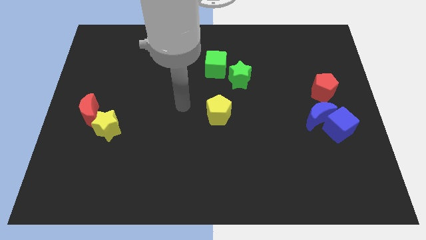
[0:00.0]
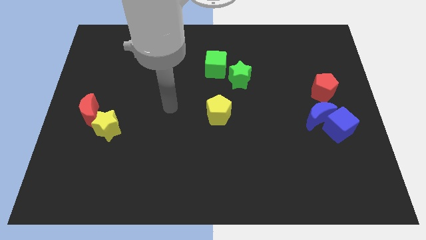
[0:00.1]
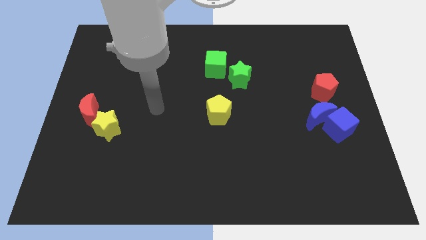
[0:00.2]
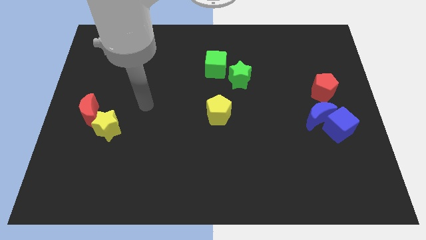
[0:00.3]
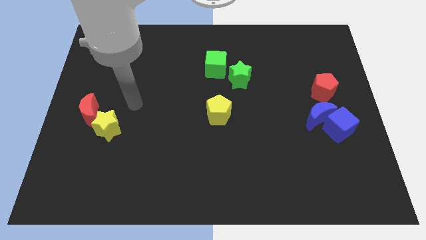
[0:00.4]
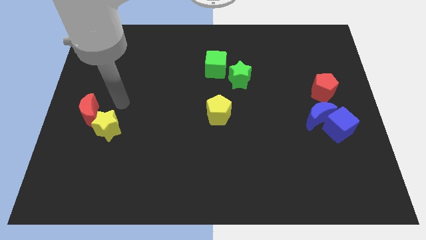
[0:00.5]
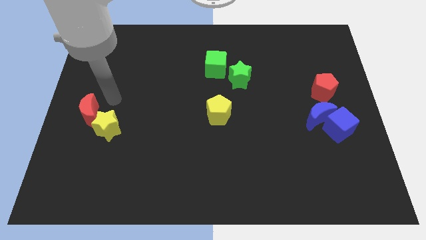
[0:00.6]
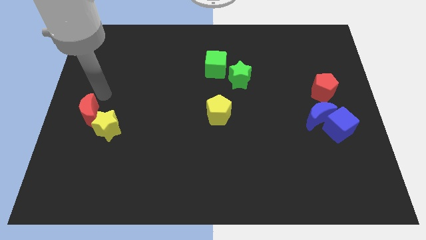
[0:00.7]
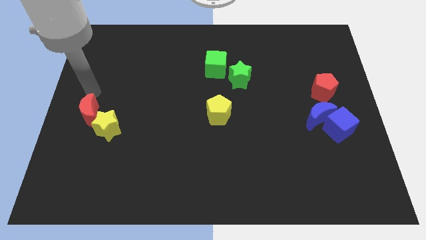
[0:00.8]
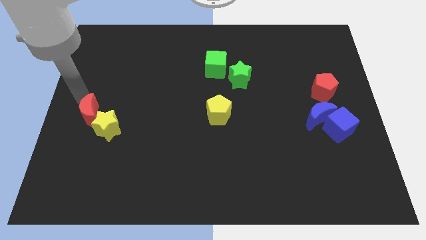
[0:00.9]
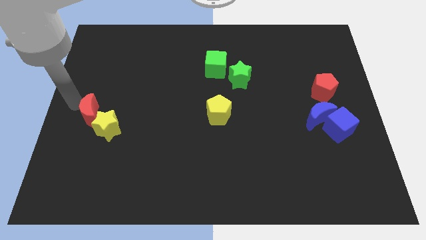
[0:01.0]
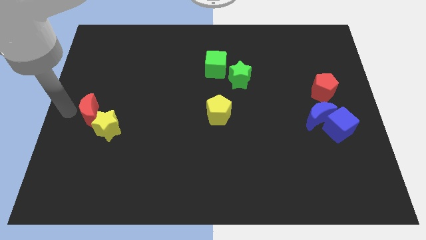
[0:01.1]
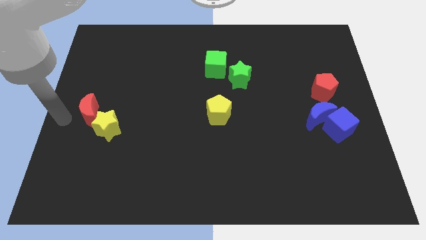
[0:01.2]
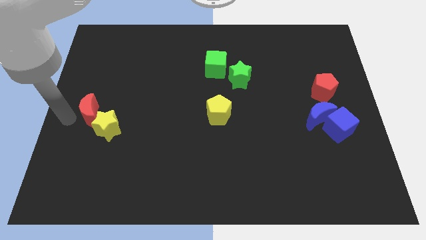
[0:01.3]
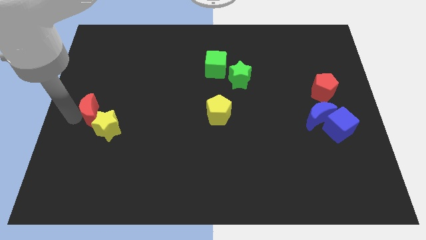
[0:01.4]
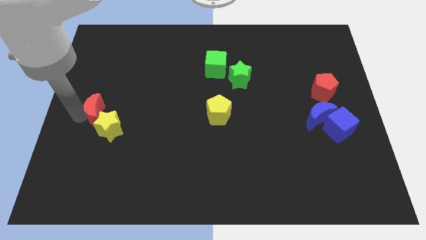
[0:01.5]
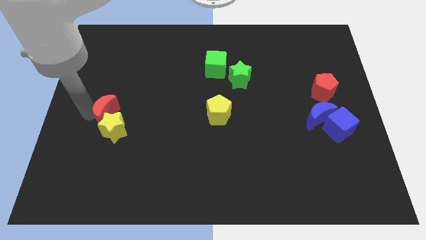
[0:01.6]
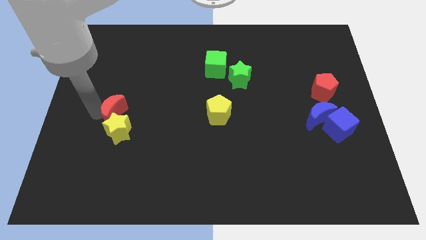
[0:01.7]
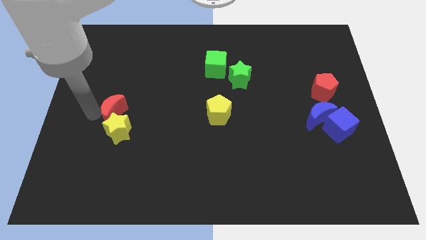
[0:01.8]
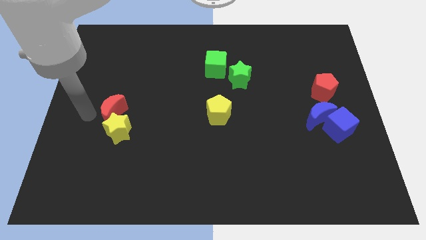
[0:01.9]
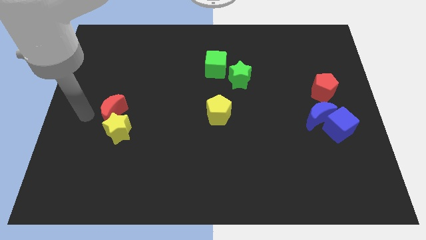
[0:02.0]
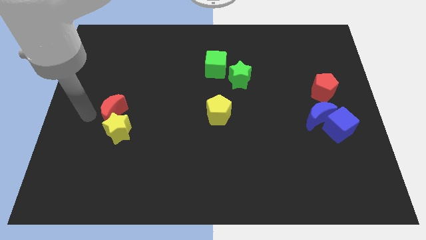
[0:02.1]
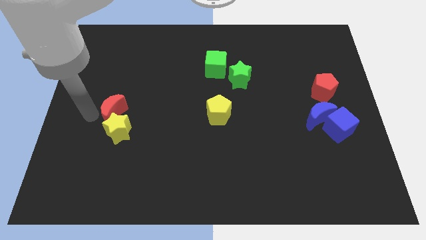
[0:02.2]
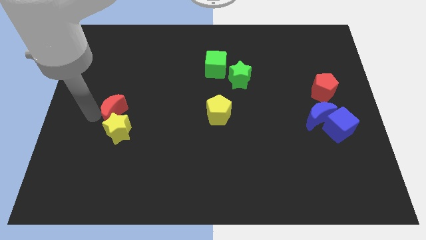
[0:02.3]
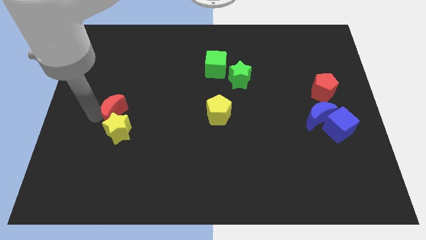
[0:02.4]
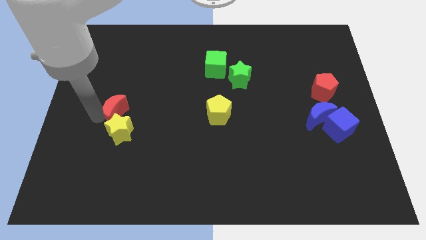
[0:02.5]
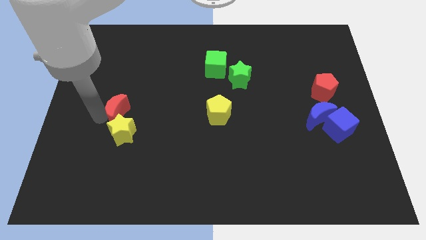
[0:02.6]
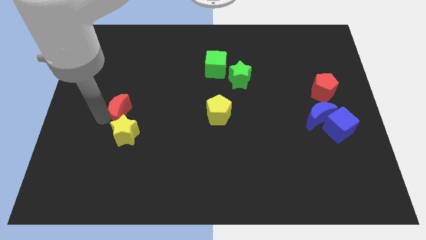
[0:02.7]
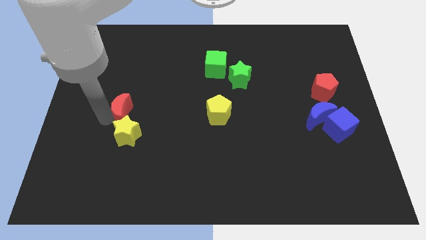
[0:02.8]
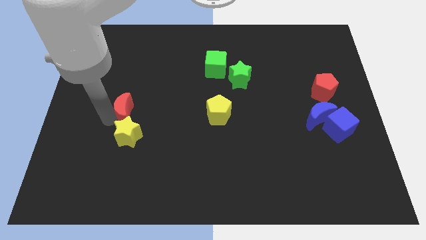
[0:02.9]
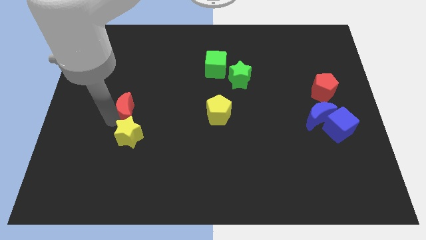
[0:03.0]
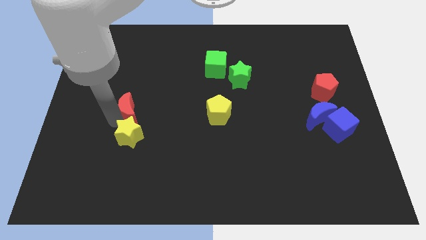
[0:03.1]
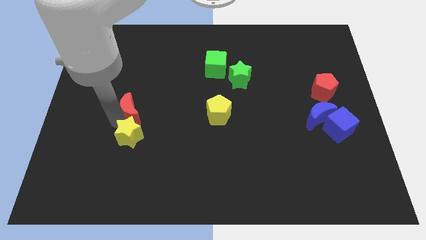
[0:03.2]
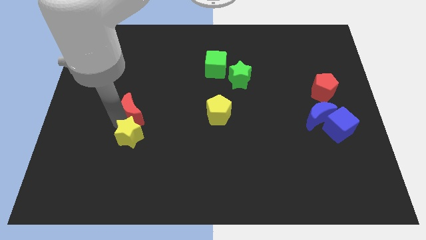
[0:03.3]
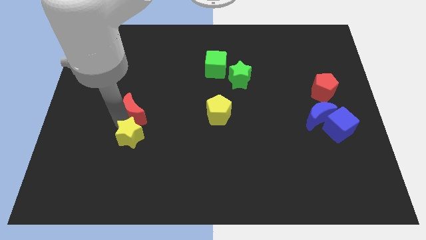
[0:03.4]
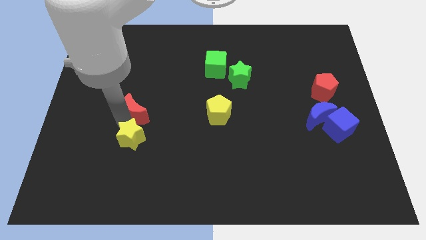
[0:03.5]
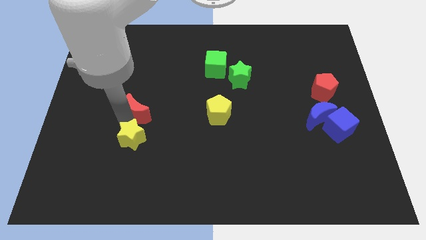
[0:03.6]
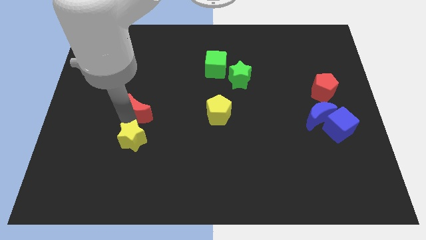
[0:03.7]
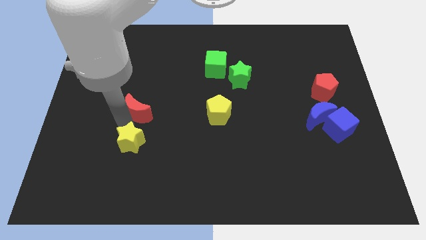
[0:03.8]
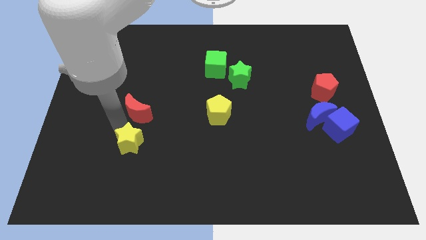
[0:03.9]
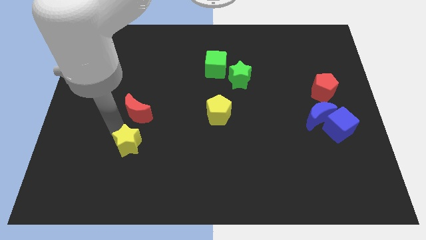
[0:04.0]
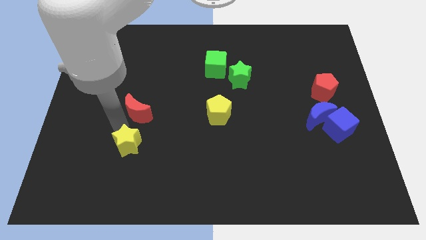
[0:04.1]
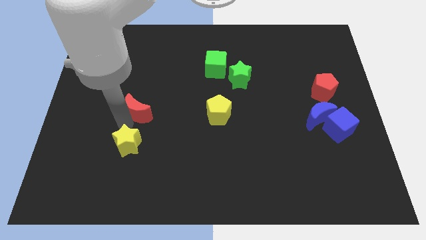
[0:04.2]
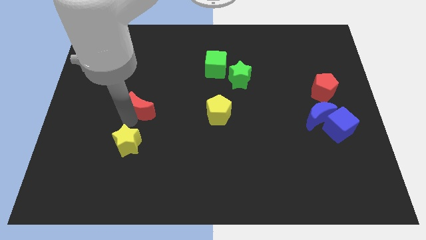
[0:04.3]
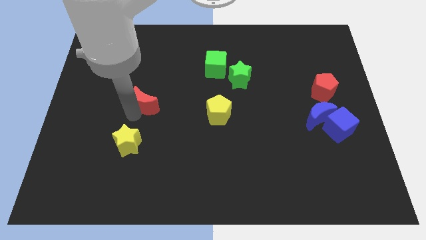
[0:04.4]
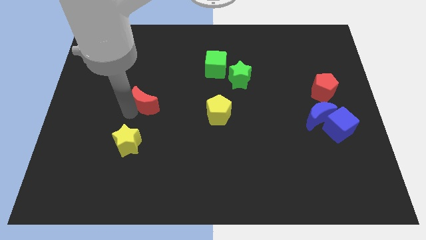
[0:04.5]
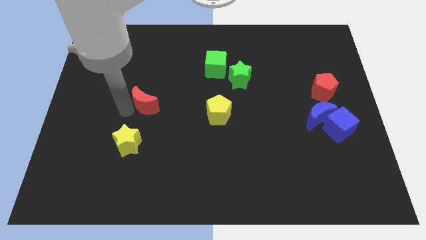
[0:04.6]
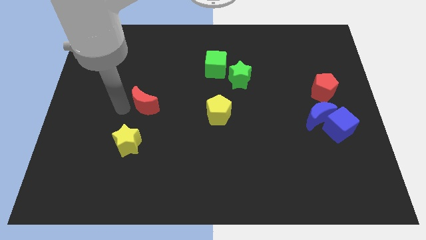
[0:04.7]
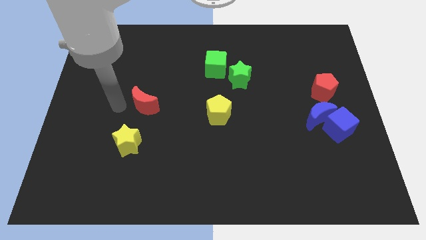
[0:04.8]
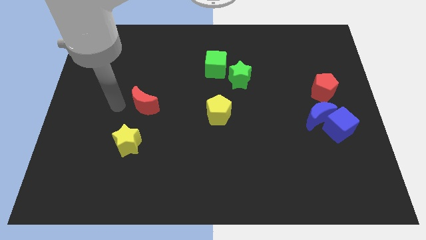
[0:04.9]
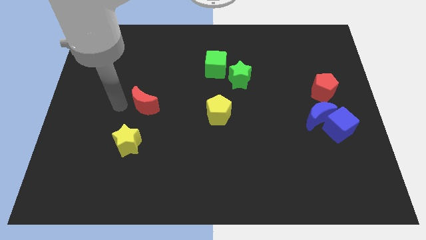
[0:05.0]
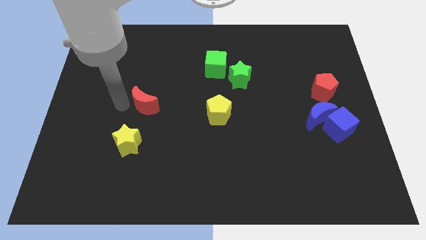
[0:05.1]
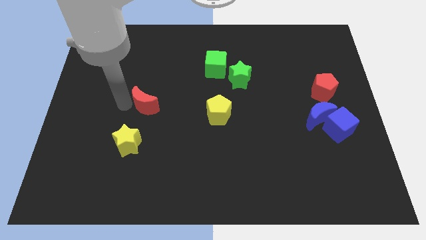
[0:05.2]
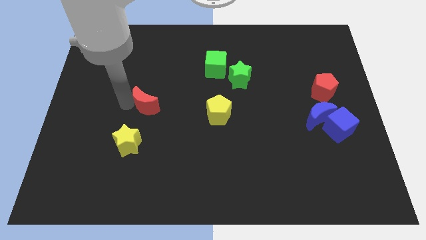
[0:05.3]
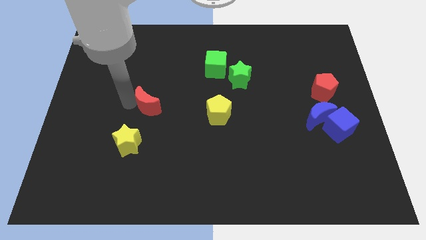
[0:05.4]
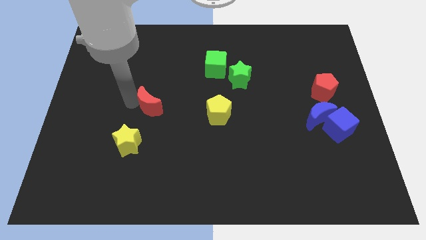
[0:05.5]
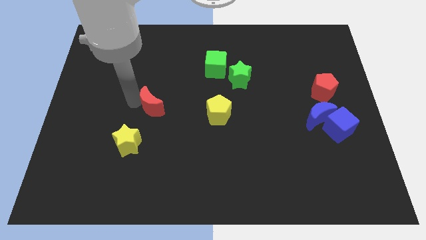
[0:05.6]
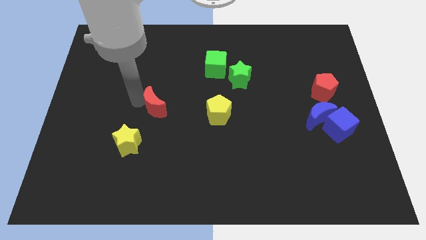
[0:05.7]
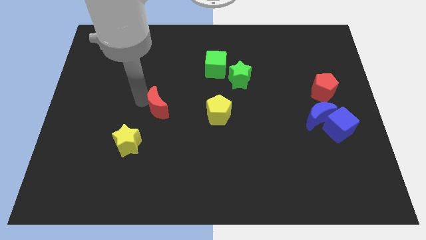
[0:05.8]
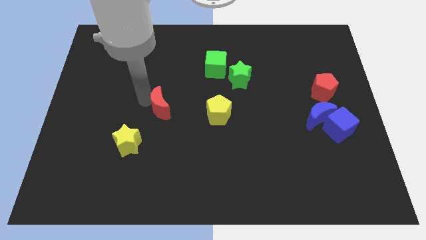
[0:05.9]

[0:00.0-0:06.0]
put the red moon to the middle of the board

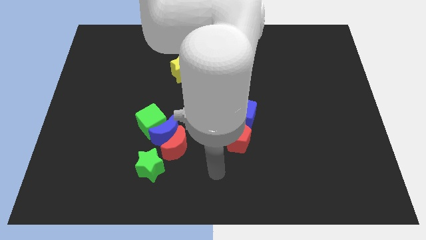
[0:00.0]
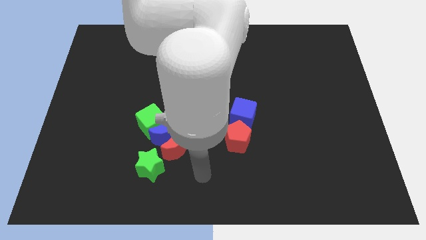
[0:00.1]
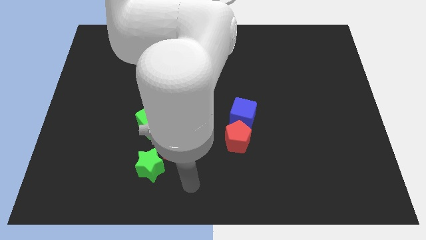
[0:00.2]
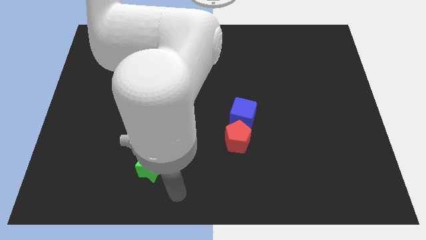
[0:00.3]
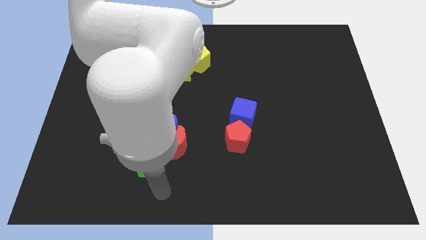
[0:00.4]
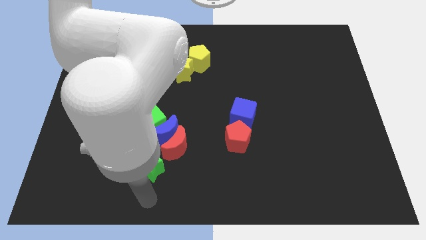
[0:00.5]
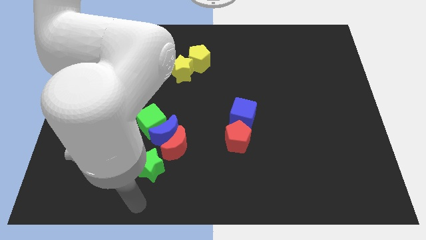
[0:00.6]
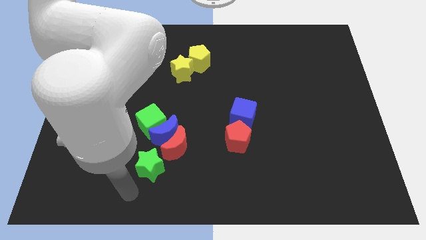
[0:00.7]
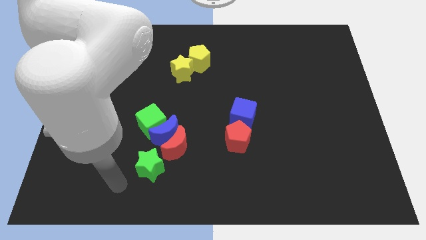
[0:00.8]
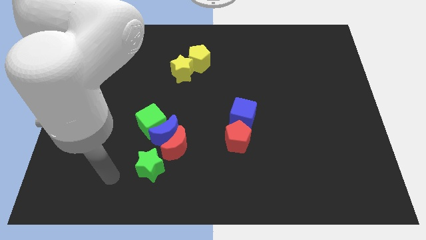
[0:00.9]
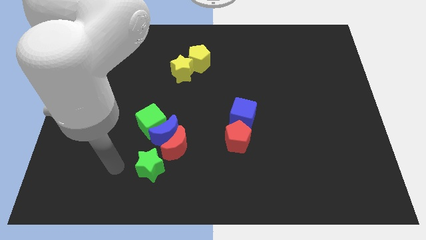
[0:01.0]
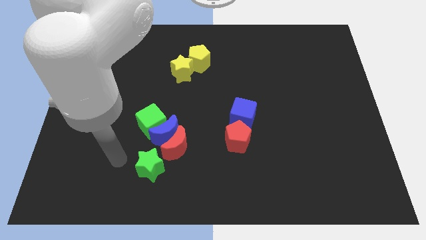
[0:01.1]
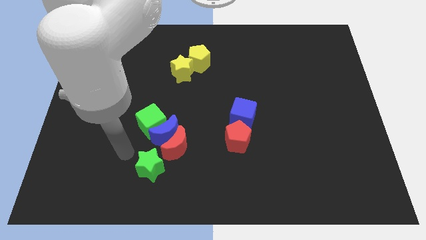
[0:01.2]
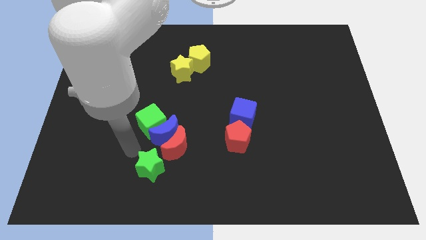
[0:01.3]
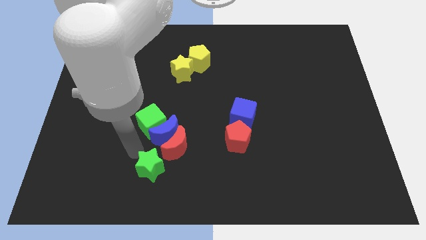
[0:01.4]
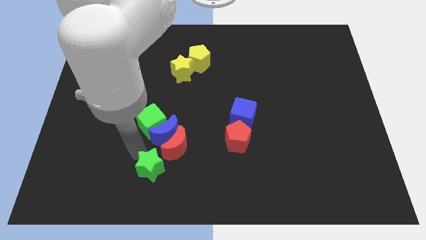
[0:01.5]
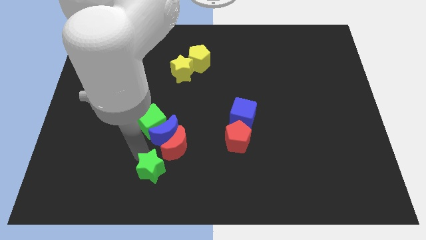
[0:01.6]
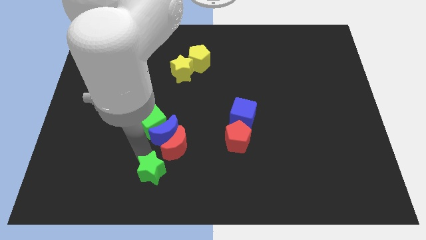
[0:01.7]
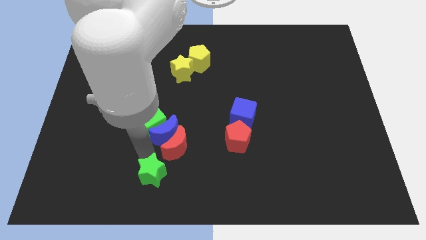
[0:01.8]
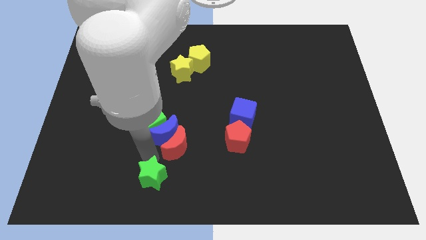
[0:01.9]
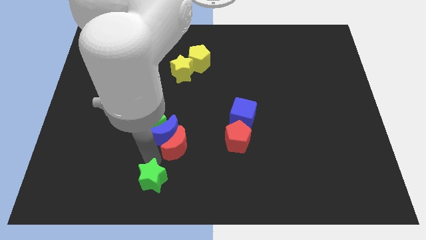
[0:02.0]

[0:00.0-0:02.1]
move the green star to the bottom
